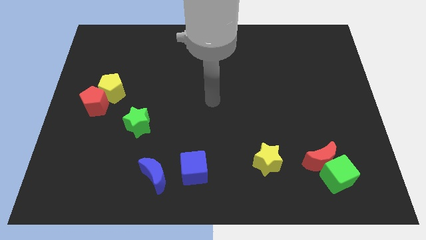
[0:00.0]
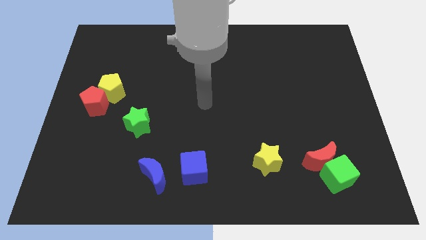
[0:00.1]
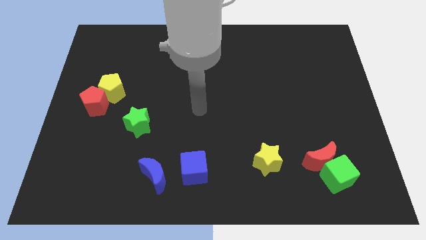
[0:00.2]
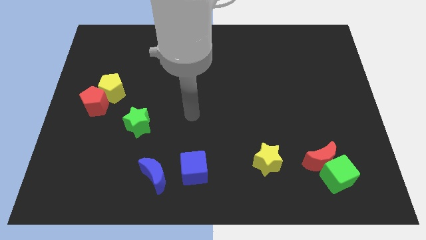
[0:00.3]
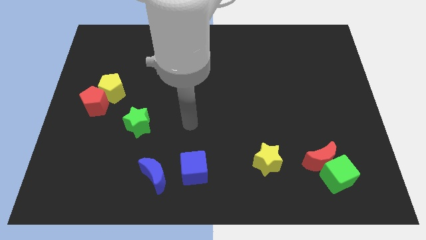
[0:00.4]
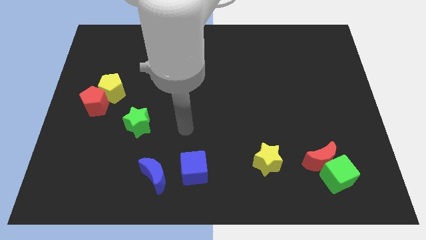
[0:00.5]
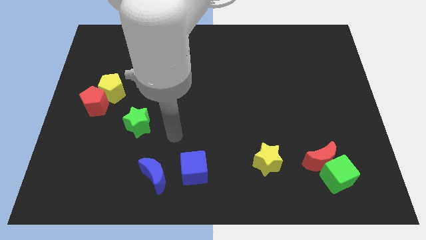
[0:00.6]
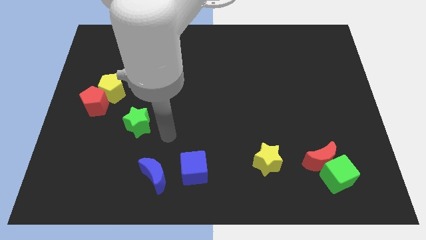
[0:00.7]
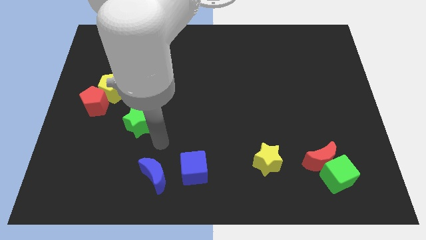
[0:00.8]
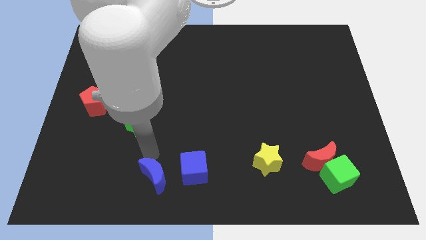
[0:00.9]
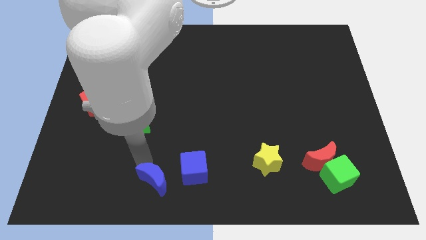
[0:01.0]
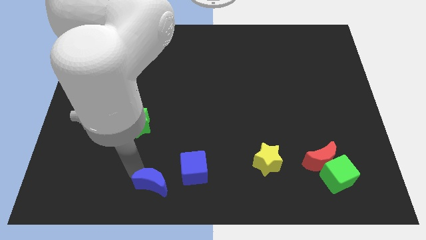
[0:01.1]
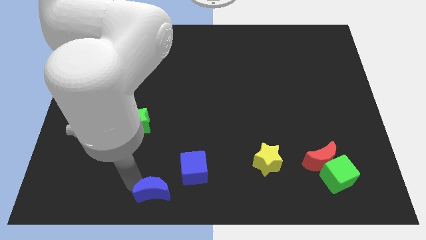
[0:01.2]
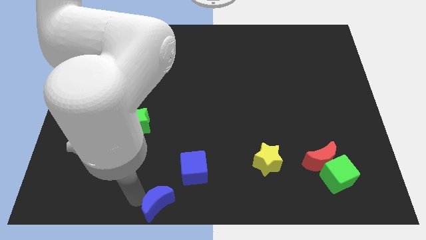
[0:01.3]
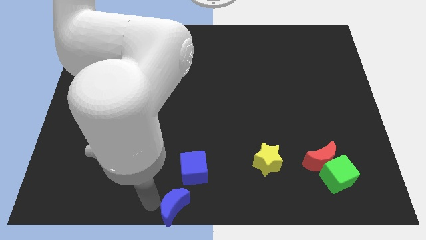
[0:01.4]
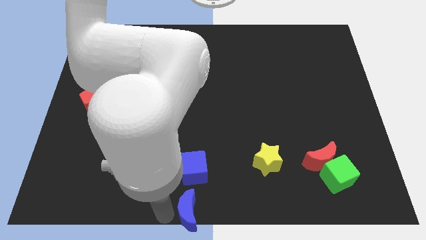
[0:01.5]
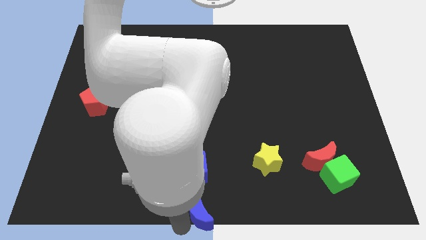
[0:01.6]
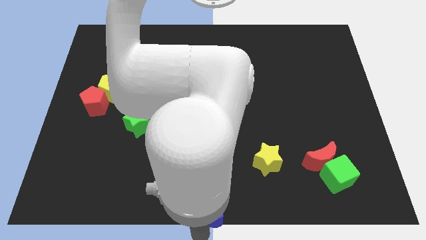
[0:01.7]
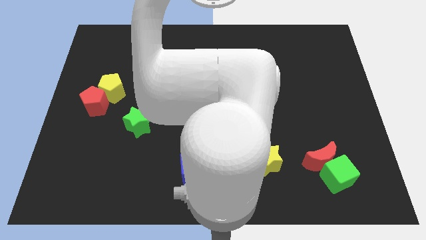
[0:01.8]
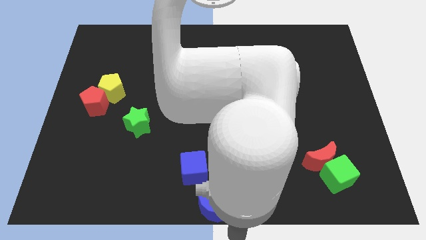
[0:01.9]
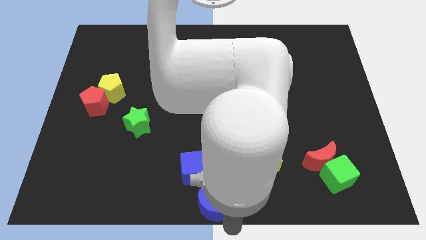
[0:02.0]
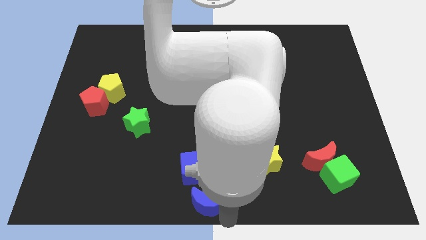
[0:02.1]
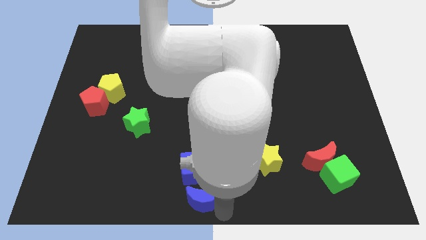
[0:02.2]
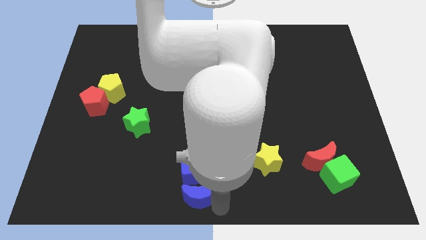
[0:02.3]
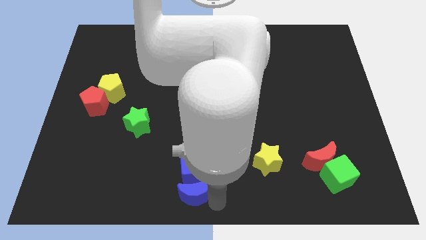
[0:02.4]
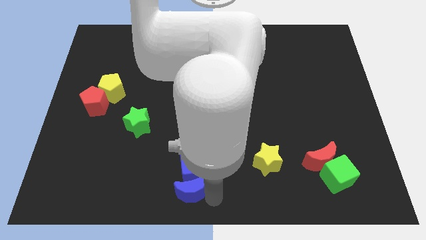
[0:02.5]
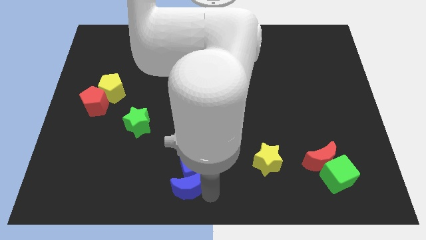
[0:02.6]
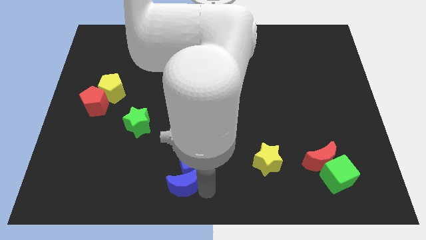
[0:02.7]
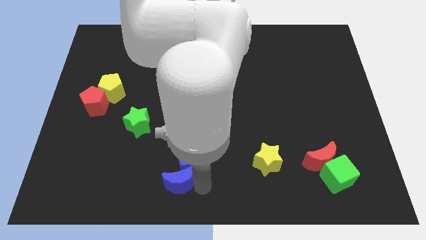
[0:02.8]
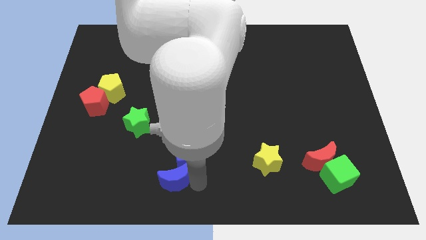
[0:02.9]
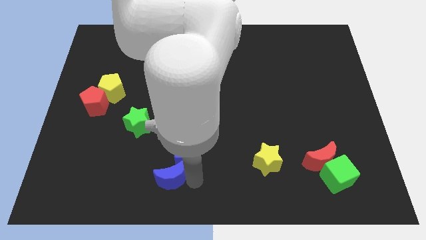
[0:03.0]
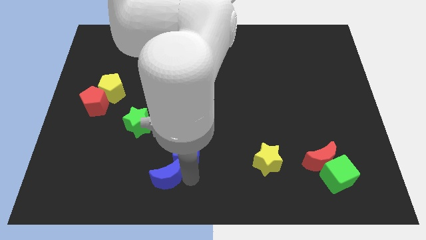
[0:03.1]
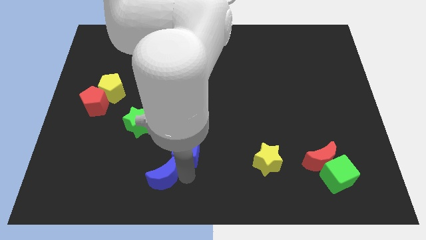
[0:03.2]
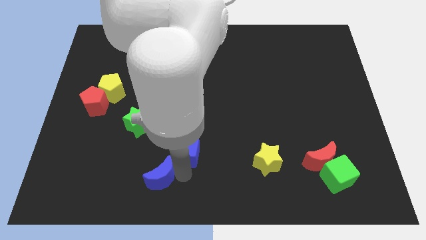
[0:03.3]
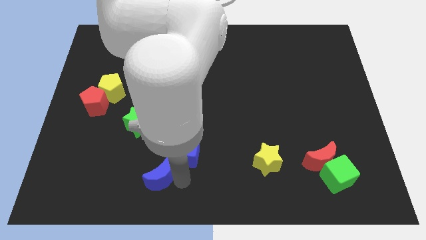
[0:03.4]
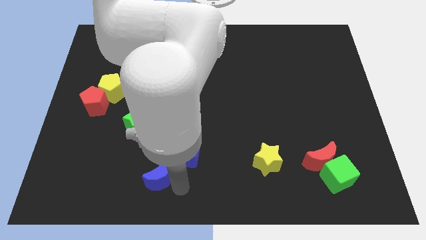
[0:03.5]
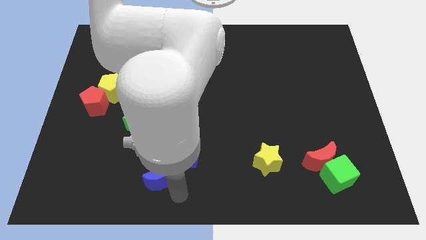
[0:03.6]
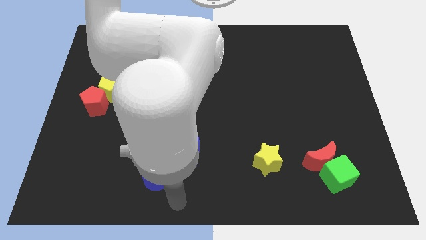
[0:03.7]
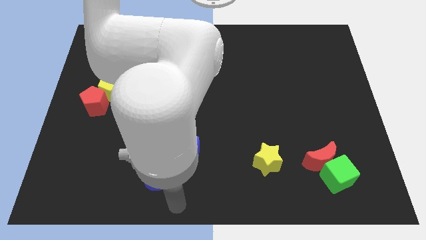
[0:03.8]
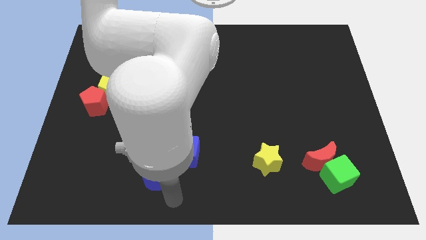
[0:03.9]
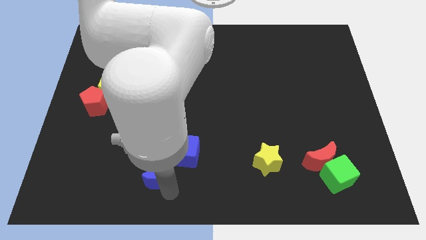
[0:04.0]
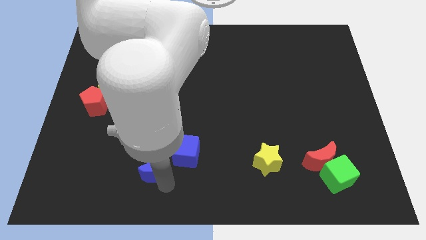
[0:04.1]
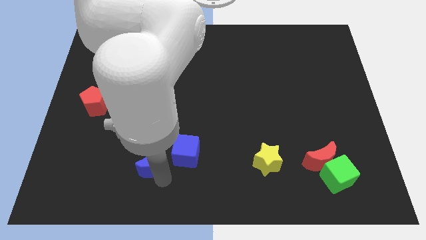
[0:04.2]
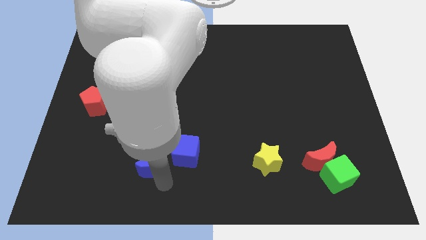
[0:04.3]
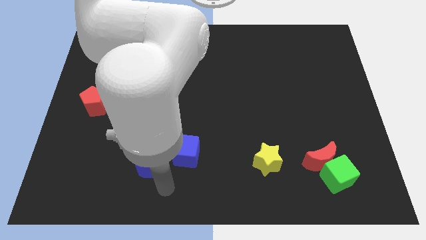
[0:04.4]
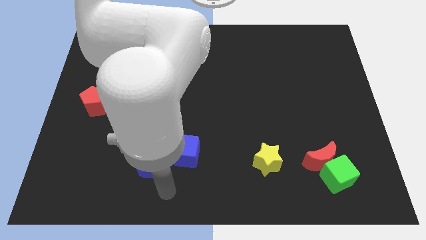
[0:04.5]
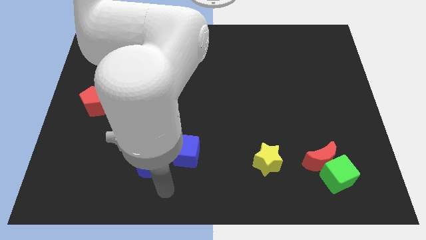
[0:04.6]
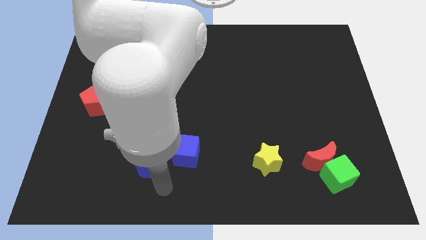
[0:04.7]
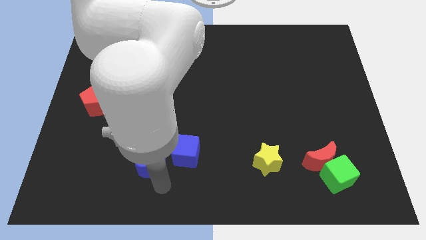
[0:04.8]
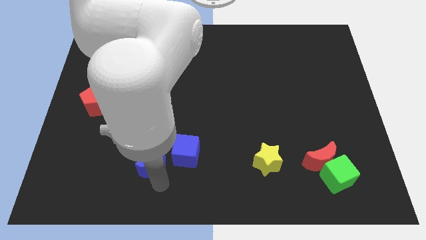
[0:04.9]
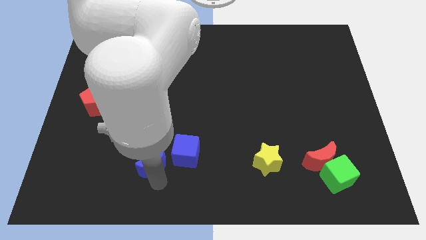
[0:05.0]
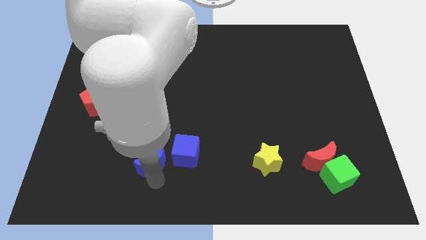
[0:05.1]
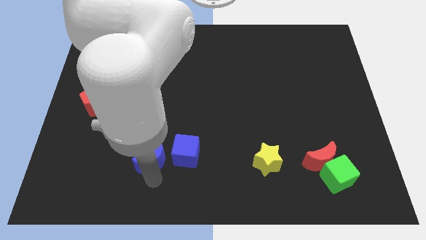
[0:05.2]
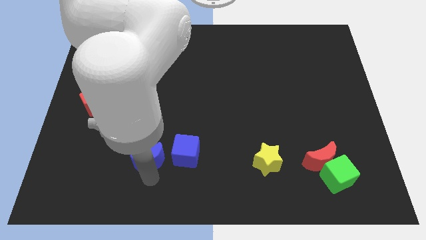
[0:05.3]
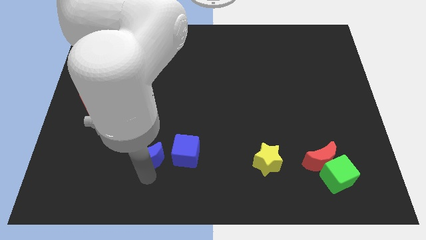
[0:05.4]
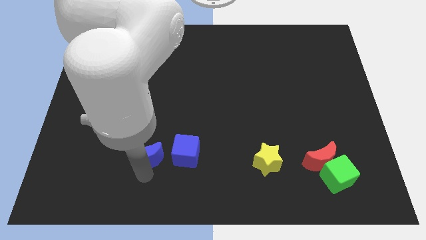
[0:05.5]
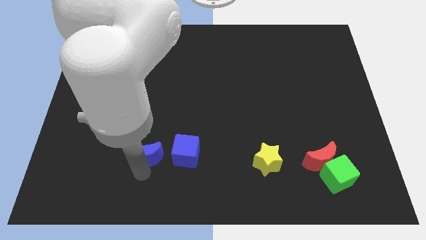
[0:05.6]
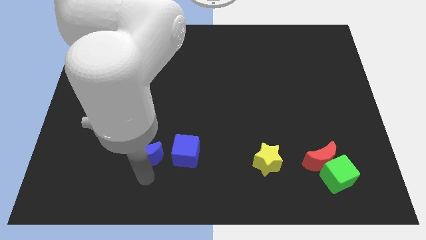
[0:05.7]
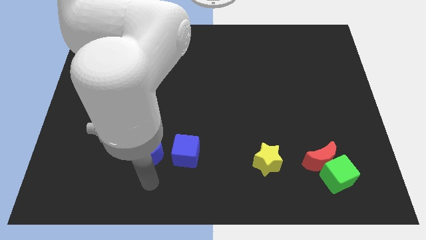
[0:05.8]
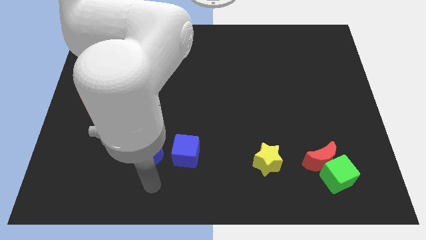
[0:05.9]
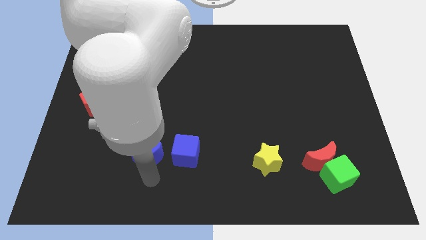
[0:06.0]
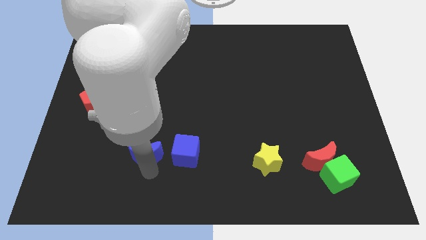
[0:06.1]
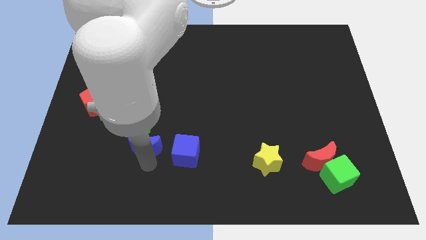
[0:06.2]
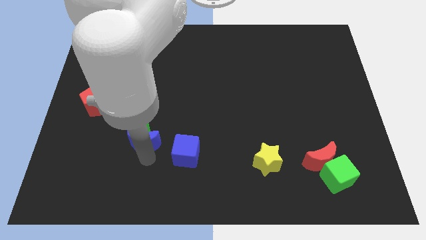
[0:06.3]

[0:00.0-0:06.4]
move the blue moon next to the green star

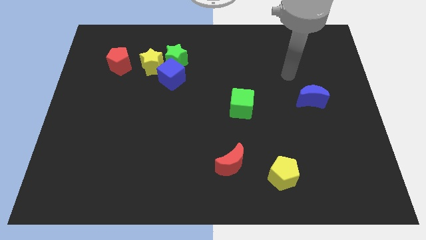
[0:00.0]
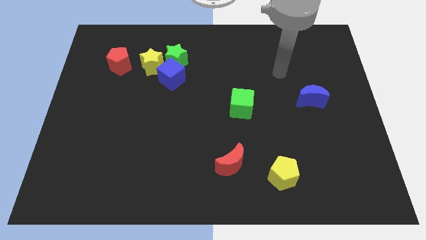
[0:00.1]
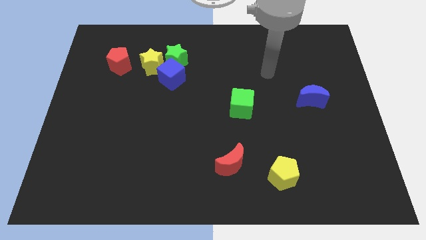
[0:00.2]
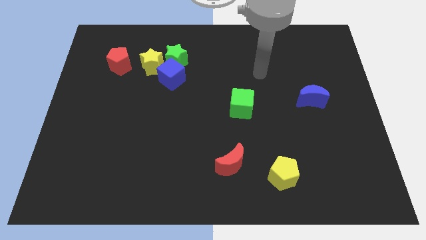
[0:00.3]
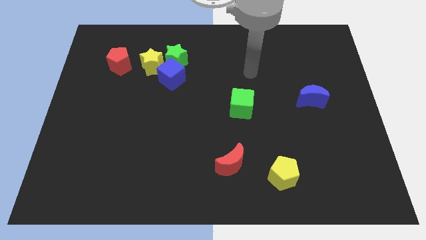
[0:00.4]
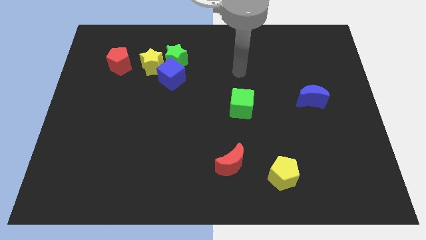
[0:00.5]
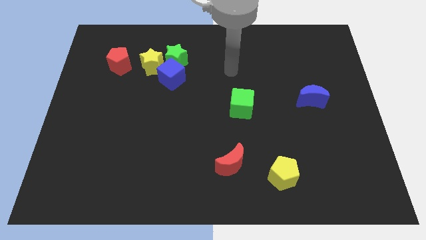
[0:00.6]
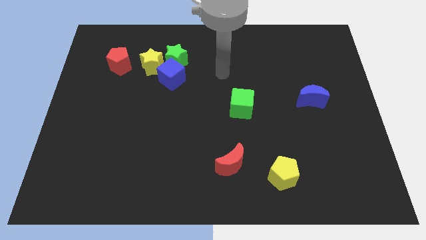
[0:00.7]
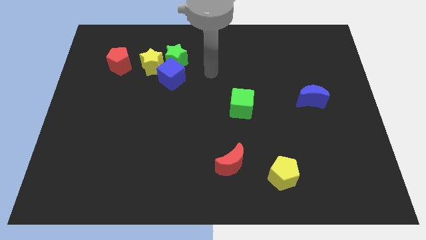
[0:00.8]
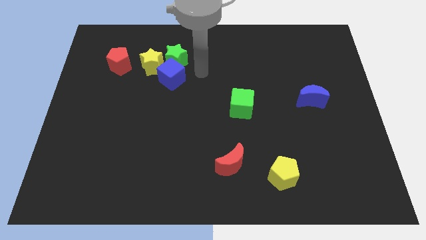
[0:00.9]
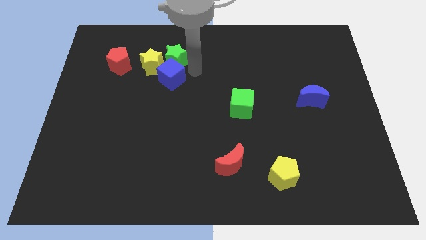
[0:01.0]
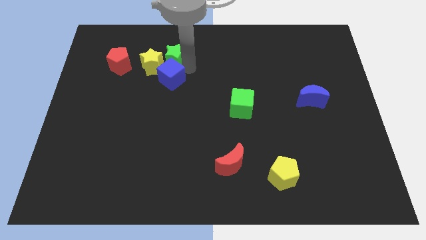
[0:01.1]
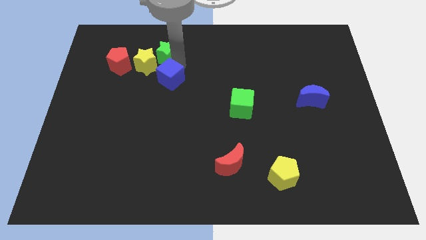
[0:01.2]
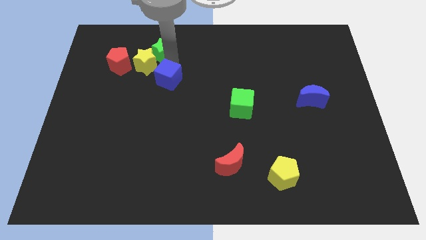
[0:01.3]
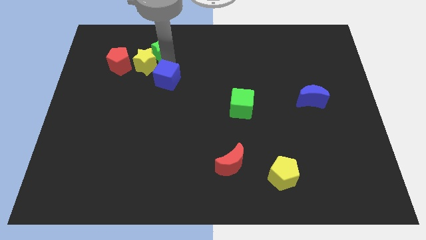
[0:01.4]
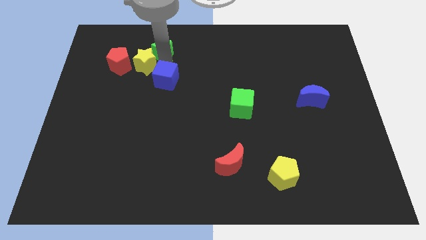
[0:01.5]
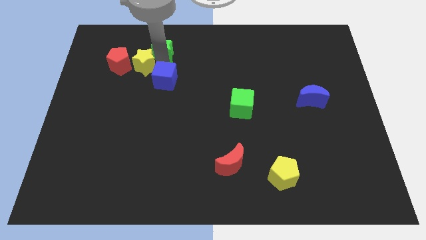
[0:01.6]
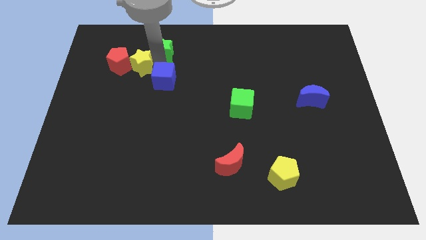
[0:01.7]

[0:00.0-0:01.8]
move the yellow star to the red pentagon
